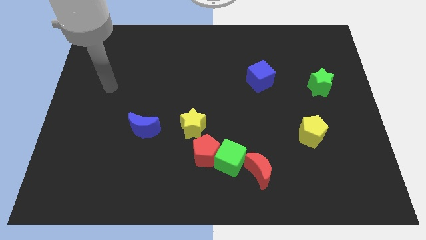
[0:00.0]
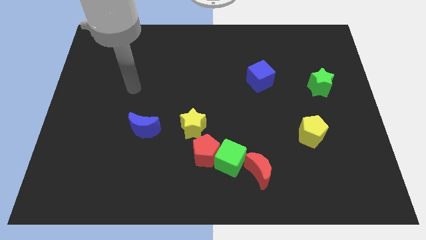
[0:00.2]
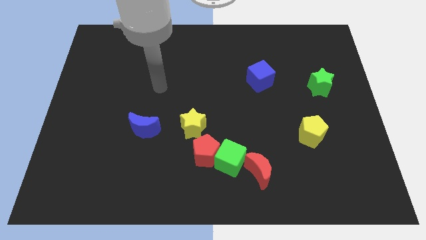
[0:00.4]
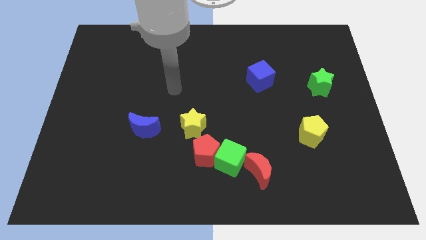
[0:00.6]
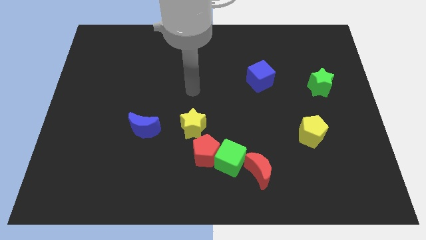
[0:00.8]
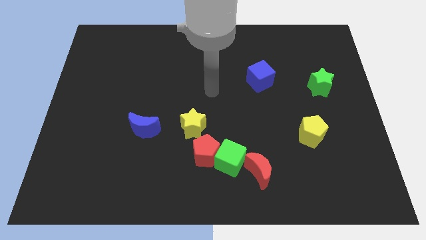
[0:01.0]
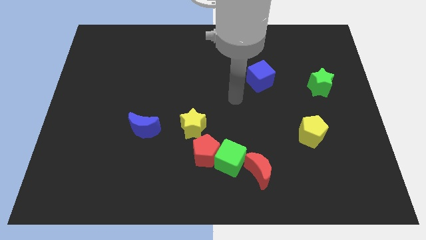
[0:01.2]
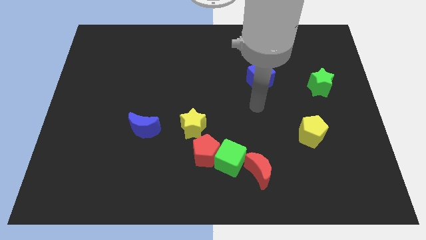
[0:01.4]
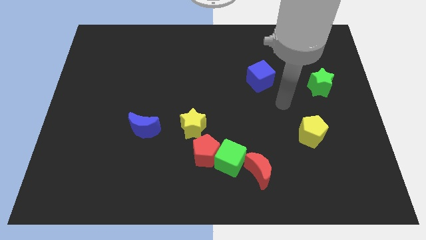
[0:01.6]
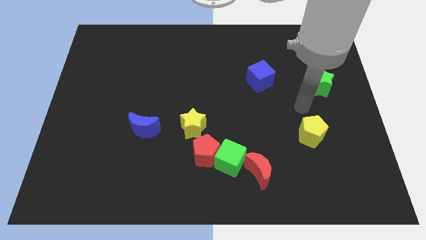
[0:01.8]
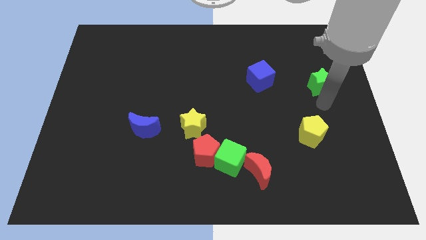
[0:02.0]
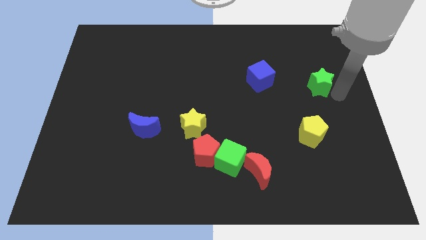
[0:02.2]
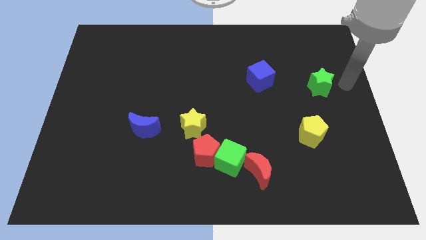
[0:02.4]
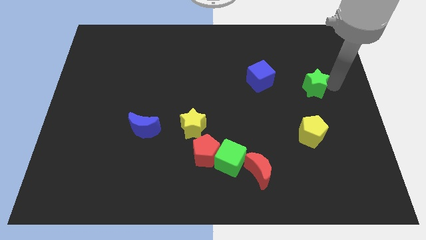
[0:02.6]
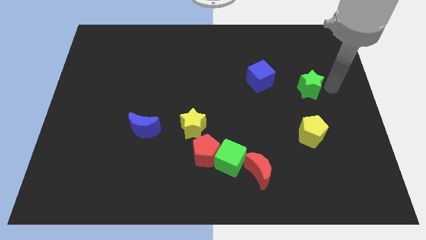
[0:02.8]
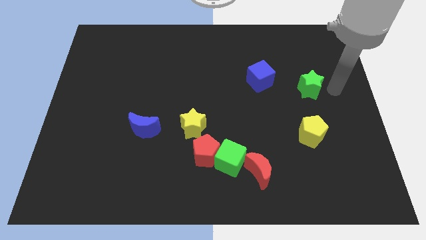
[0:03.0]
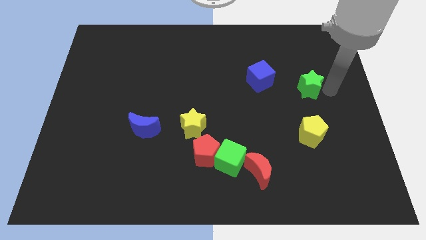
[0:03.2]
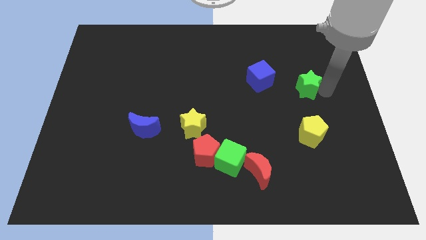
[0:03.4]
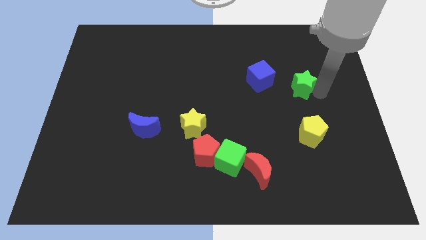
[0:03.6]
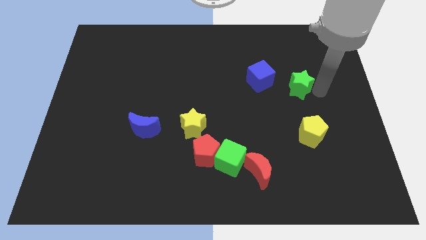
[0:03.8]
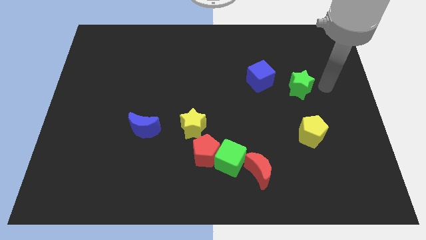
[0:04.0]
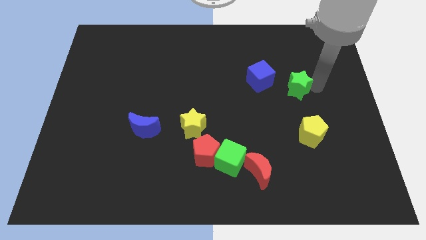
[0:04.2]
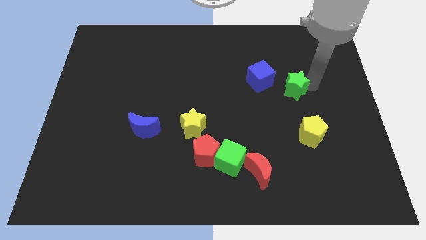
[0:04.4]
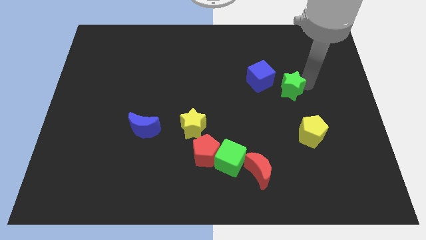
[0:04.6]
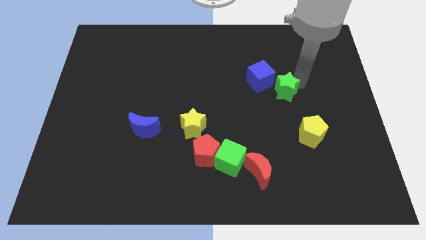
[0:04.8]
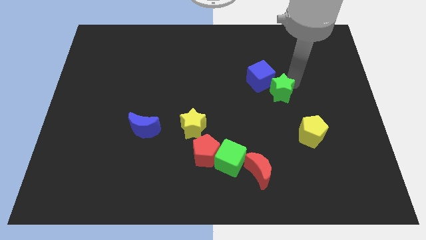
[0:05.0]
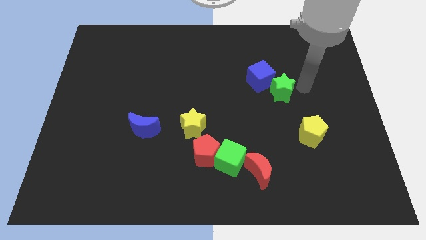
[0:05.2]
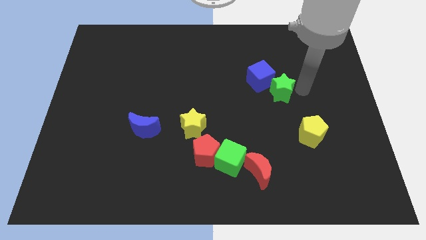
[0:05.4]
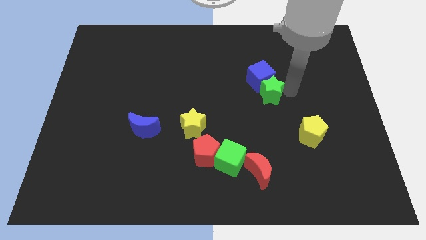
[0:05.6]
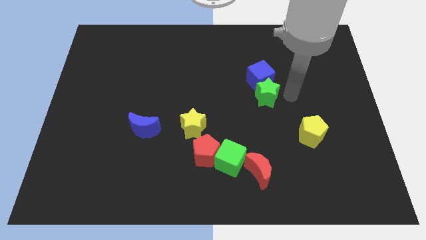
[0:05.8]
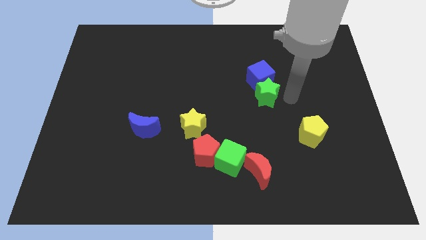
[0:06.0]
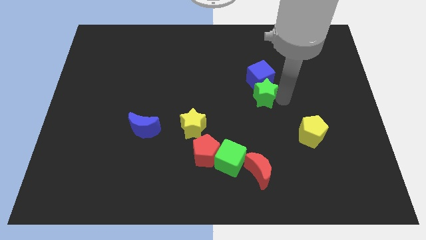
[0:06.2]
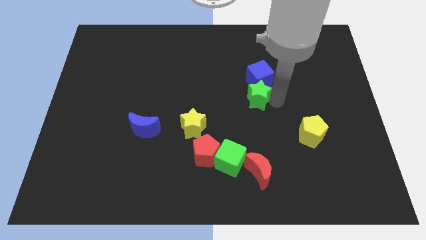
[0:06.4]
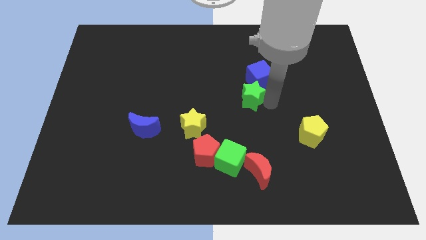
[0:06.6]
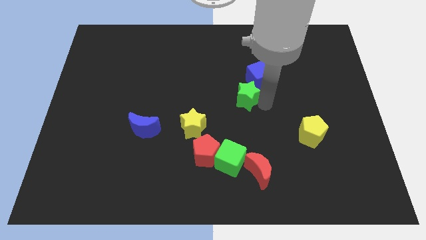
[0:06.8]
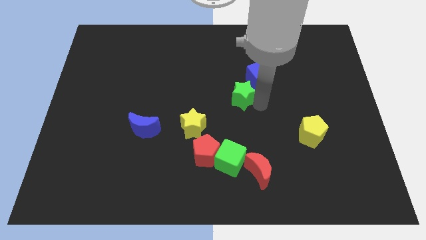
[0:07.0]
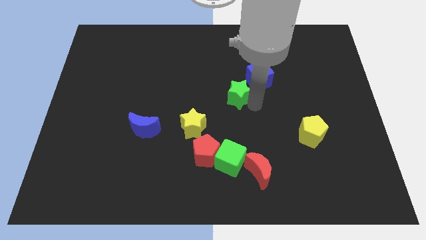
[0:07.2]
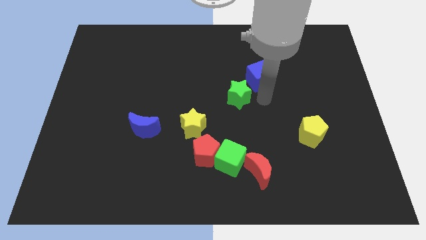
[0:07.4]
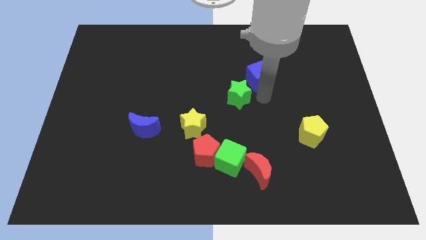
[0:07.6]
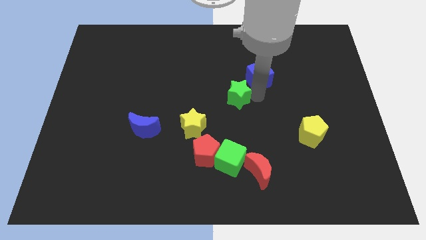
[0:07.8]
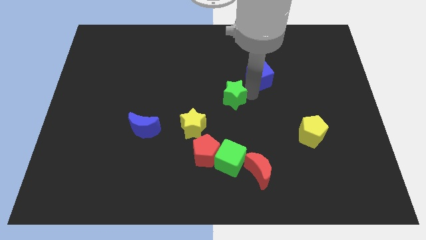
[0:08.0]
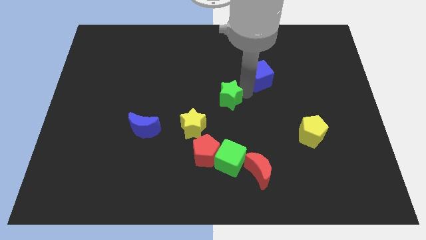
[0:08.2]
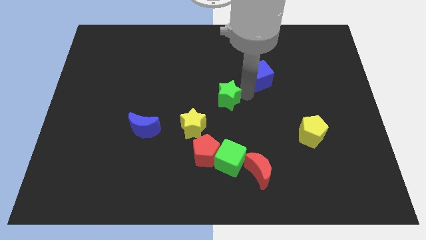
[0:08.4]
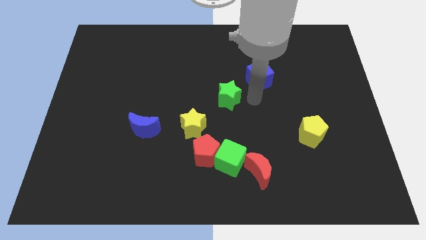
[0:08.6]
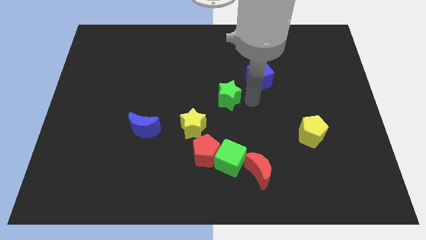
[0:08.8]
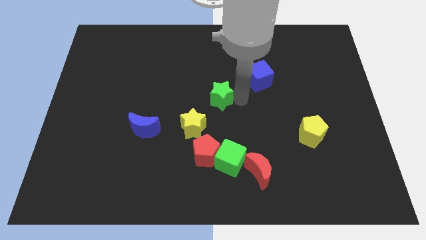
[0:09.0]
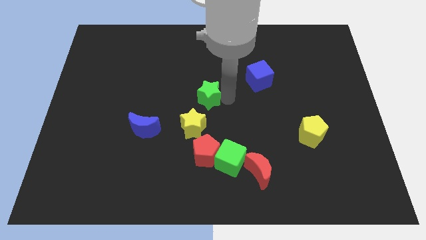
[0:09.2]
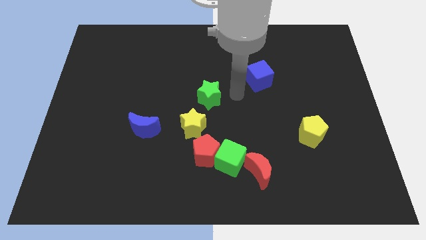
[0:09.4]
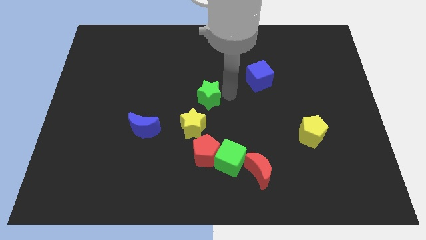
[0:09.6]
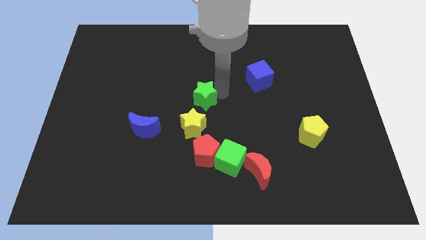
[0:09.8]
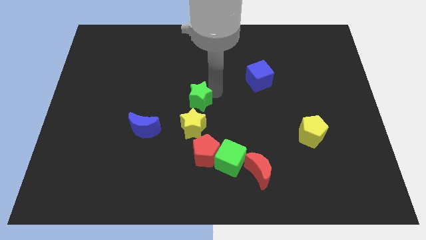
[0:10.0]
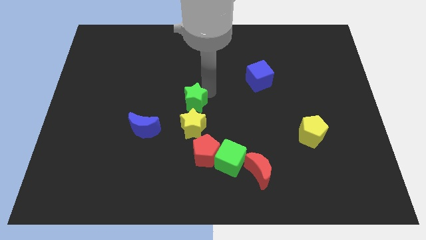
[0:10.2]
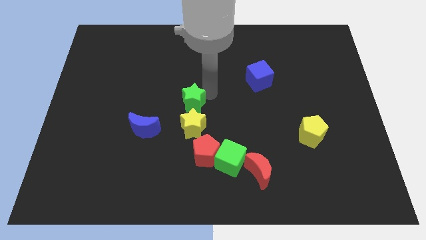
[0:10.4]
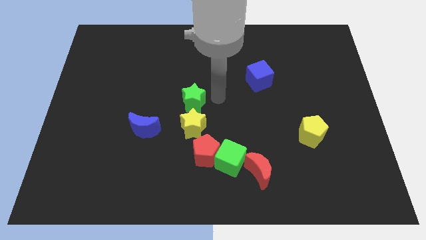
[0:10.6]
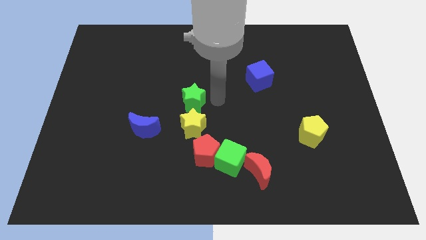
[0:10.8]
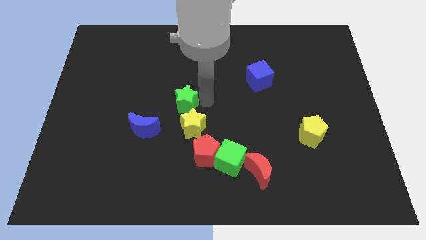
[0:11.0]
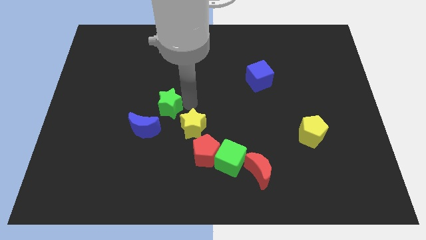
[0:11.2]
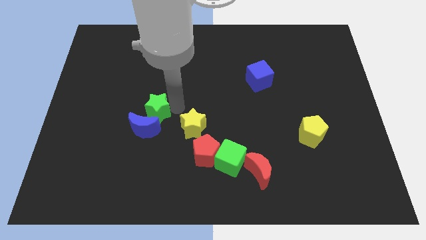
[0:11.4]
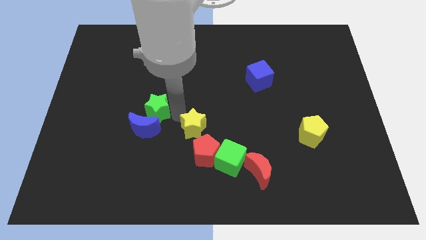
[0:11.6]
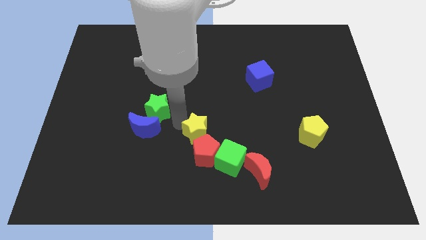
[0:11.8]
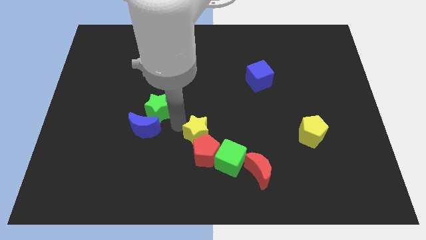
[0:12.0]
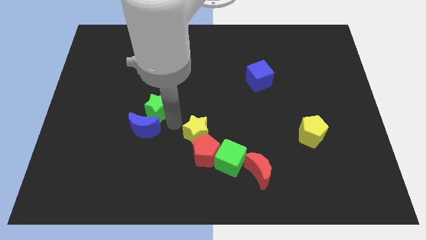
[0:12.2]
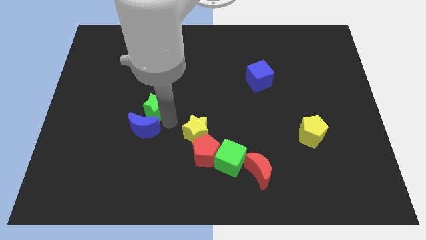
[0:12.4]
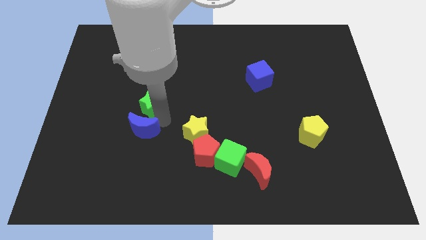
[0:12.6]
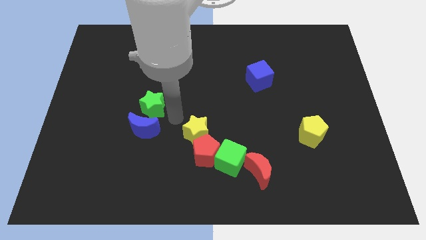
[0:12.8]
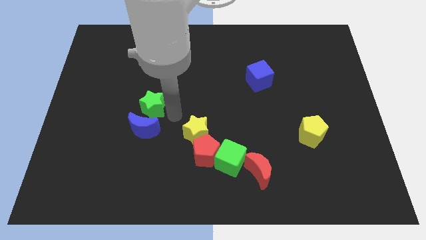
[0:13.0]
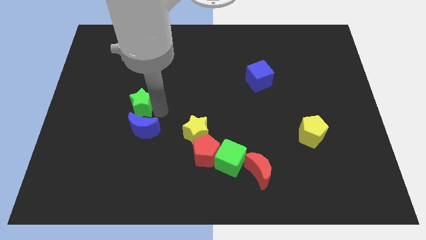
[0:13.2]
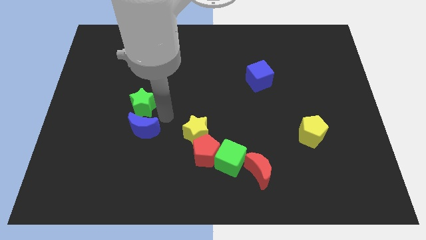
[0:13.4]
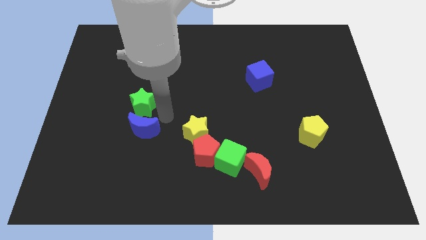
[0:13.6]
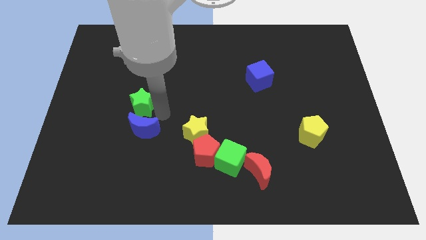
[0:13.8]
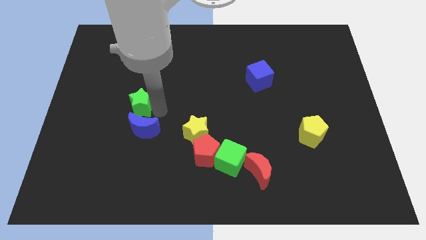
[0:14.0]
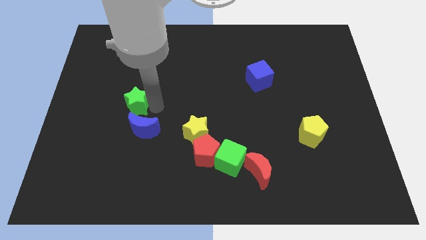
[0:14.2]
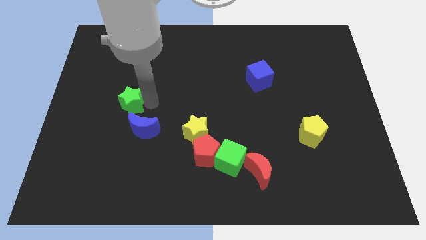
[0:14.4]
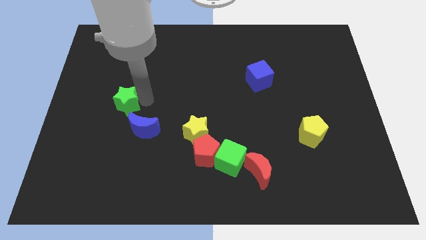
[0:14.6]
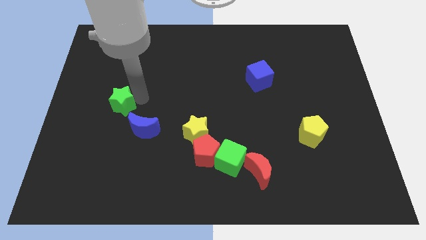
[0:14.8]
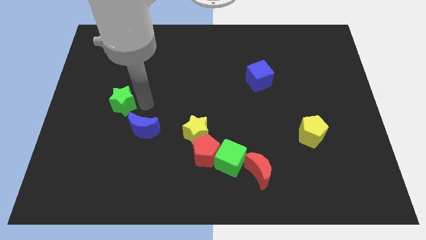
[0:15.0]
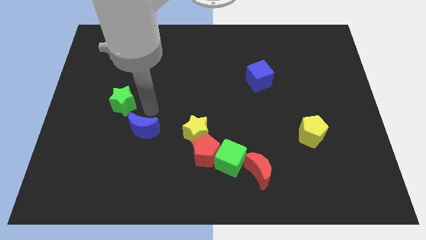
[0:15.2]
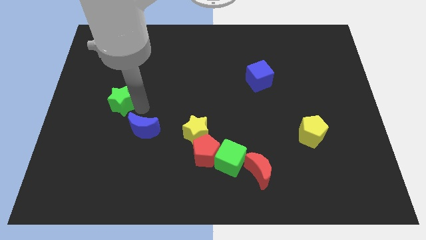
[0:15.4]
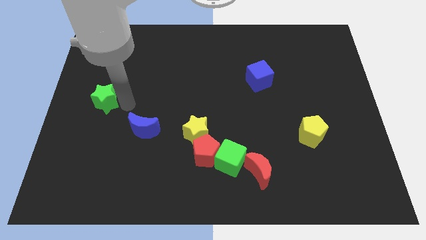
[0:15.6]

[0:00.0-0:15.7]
slide the green star to the center left
